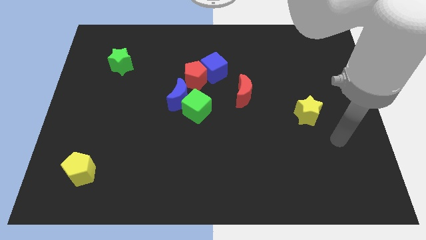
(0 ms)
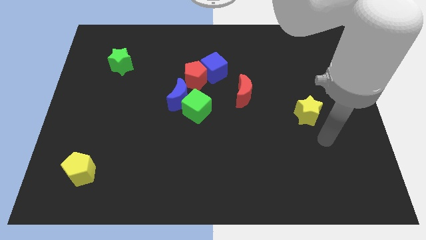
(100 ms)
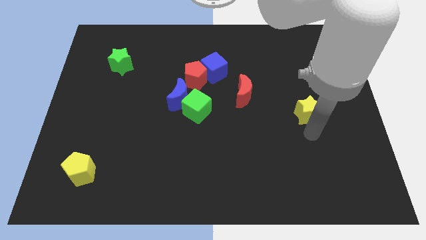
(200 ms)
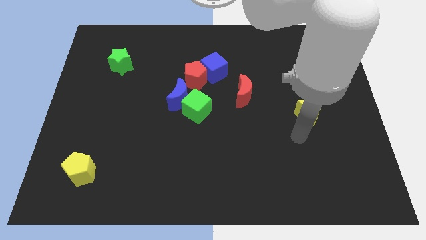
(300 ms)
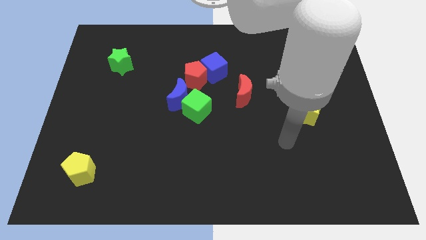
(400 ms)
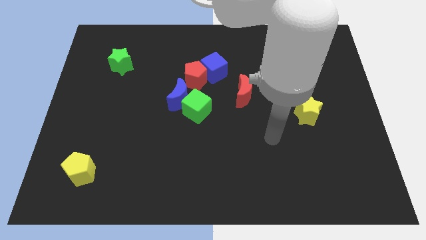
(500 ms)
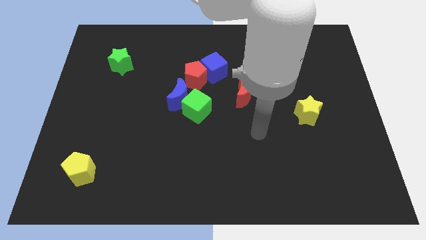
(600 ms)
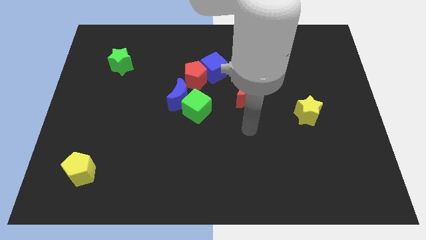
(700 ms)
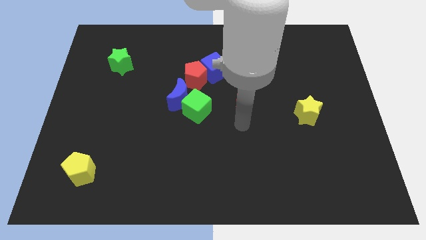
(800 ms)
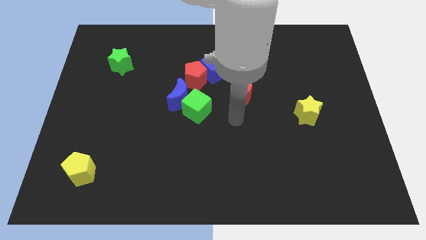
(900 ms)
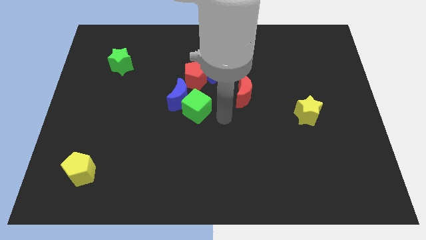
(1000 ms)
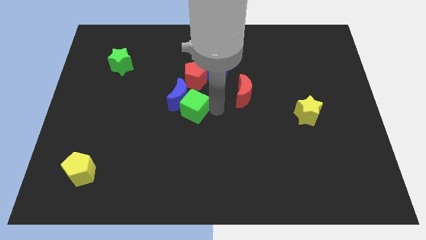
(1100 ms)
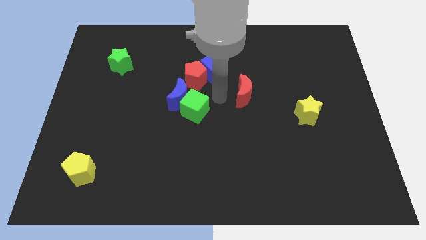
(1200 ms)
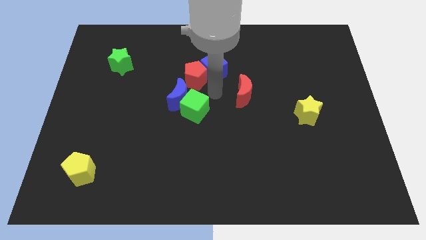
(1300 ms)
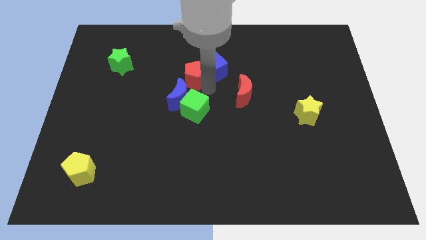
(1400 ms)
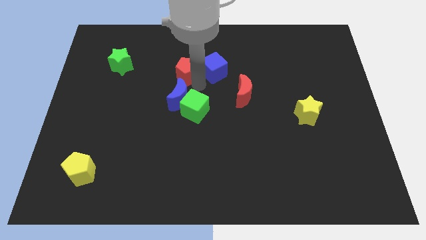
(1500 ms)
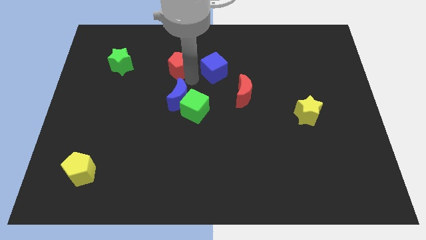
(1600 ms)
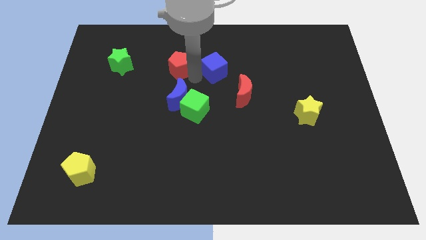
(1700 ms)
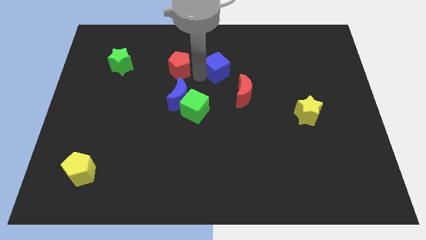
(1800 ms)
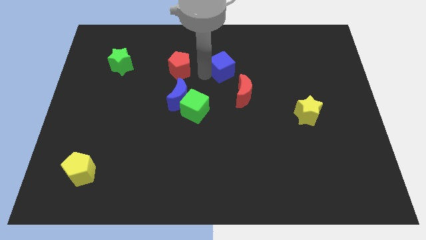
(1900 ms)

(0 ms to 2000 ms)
separate the blue cube from the red pentagon

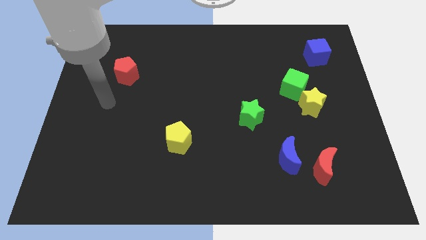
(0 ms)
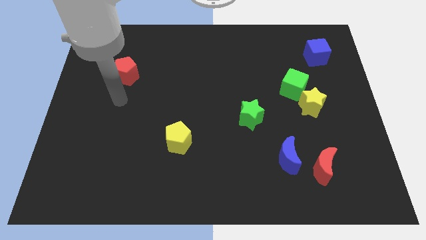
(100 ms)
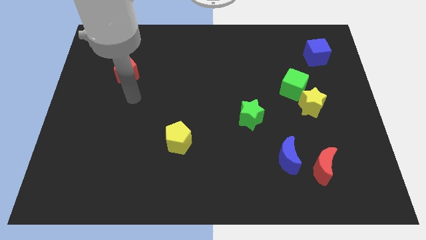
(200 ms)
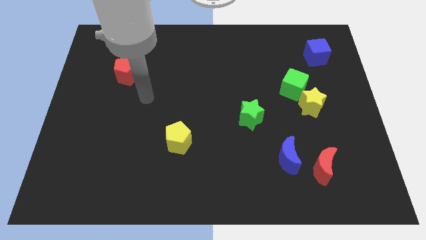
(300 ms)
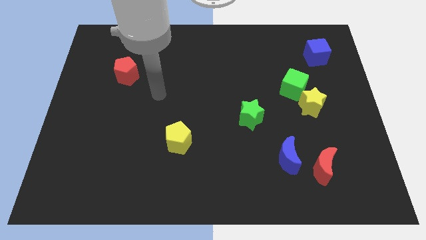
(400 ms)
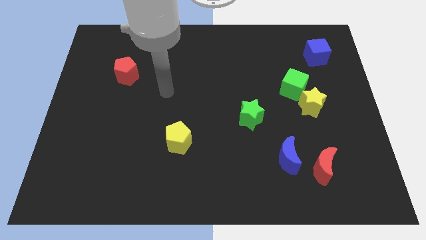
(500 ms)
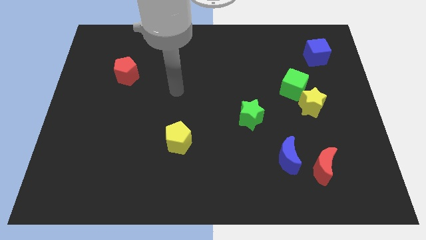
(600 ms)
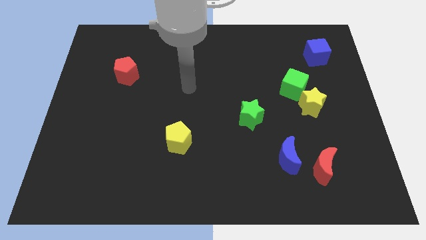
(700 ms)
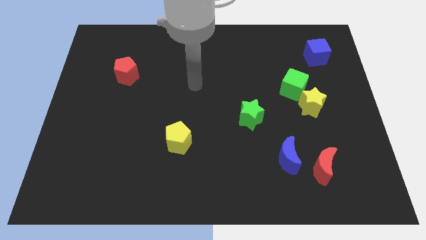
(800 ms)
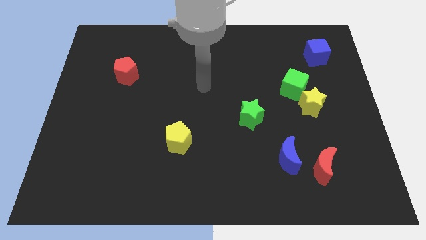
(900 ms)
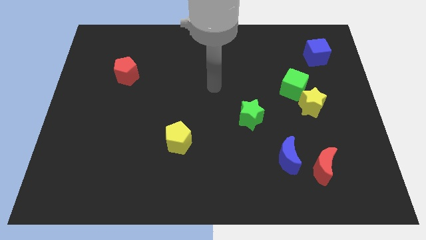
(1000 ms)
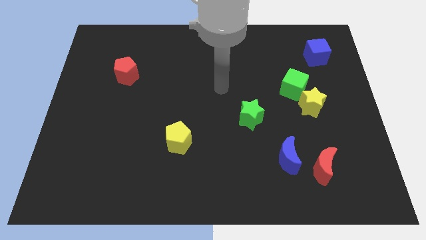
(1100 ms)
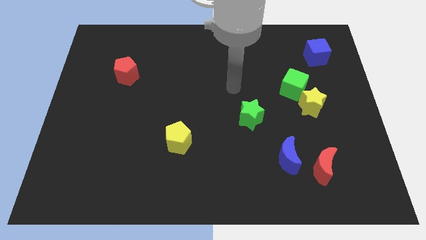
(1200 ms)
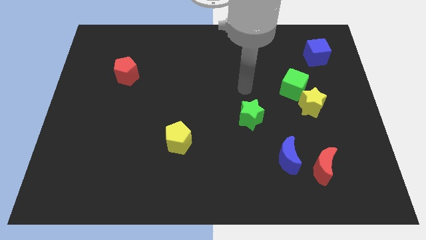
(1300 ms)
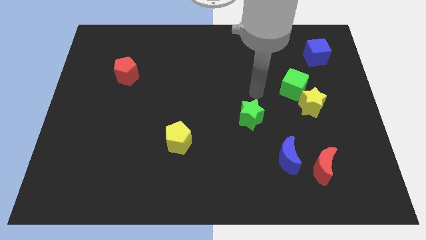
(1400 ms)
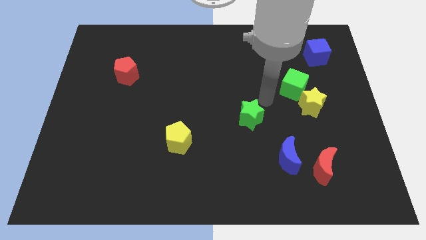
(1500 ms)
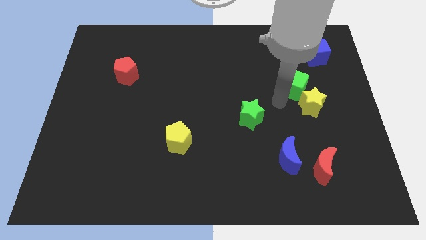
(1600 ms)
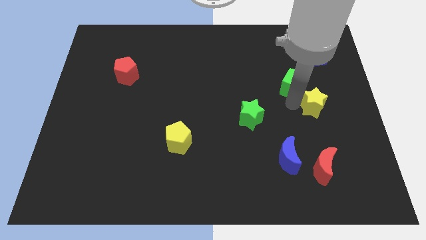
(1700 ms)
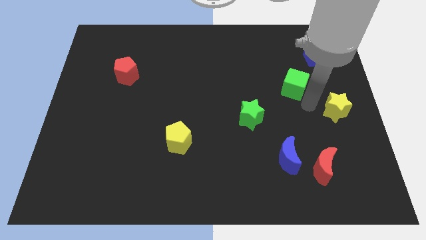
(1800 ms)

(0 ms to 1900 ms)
move the green cube away from the yellow star

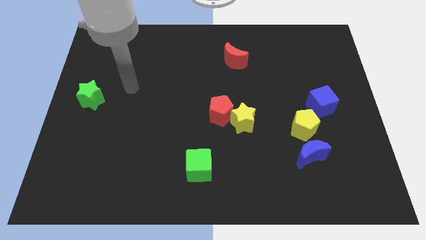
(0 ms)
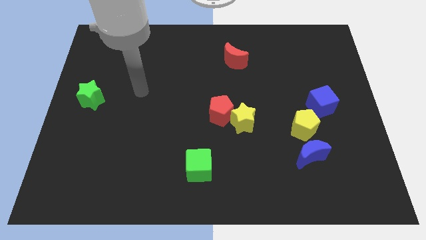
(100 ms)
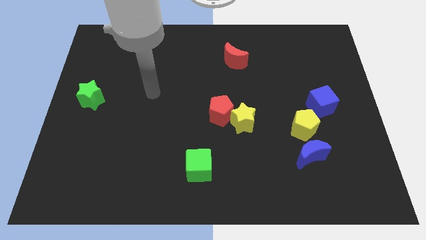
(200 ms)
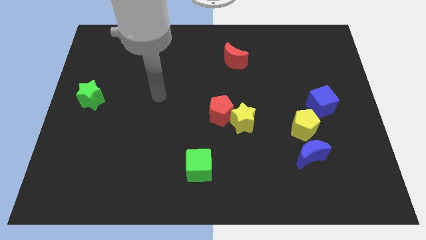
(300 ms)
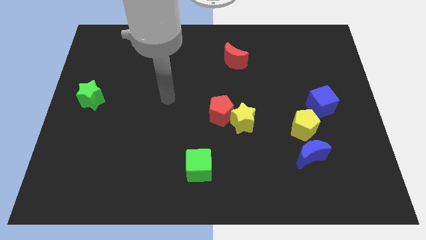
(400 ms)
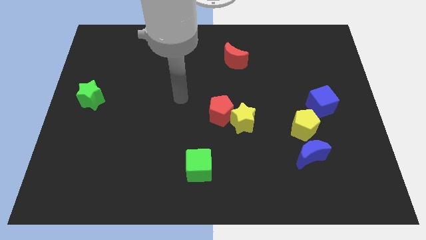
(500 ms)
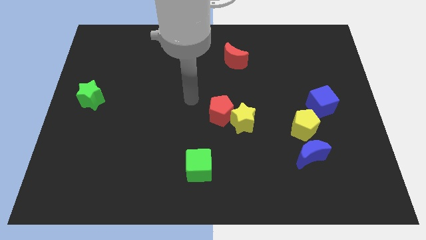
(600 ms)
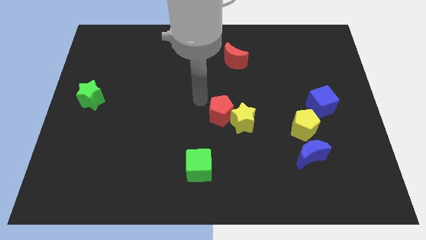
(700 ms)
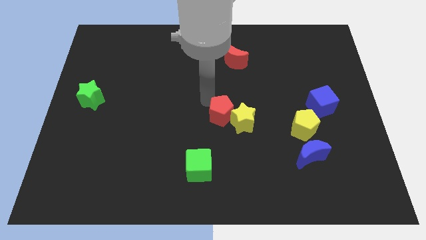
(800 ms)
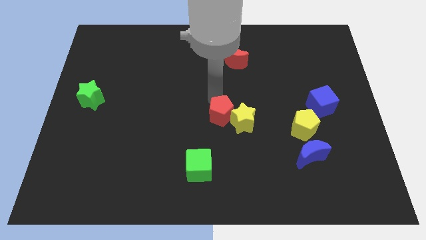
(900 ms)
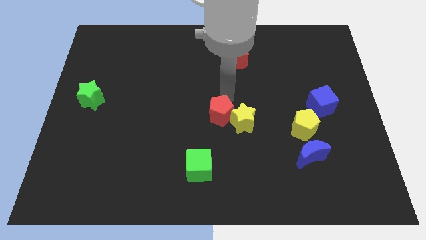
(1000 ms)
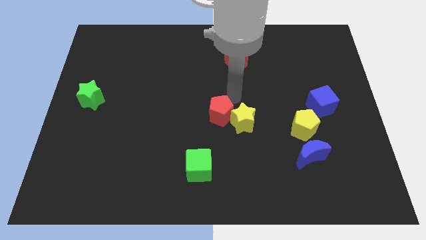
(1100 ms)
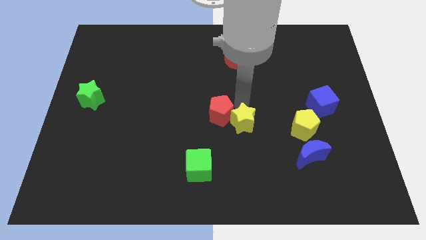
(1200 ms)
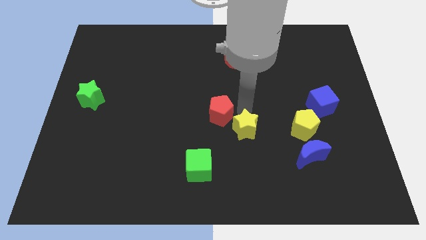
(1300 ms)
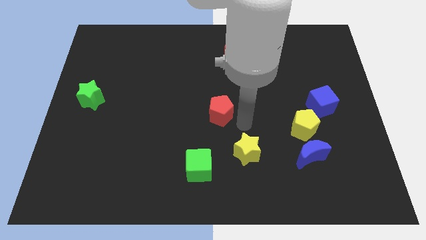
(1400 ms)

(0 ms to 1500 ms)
move the red pentagon away from the yellow star

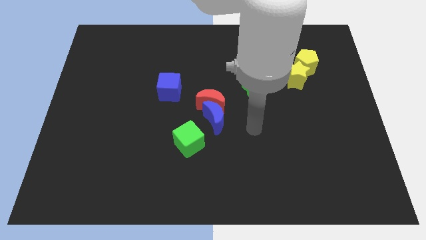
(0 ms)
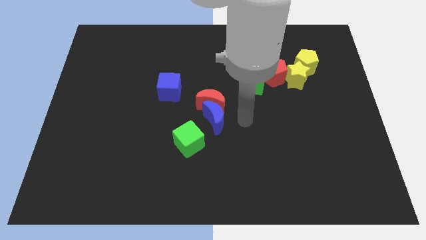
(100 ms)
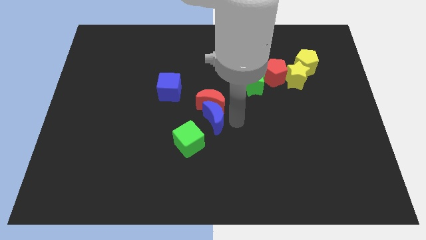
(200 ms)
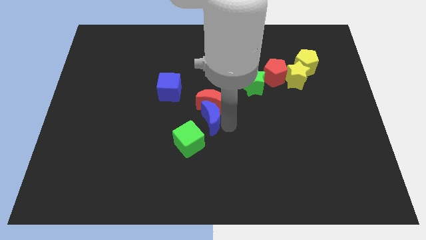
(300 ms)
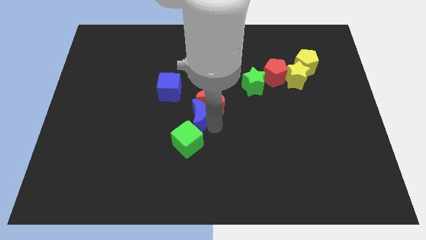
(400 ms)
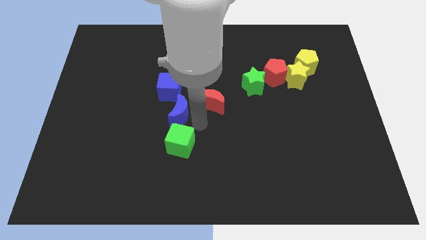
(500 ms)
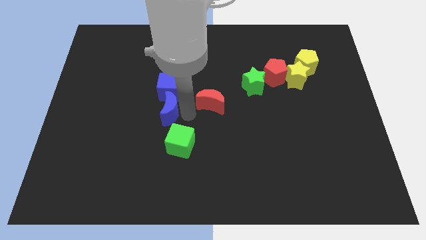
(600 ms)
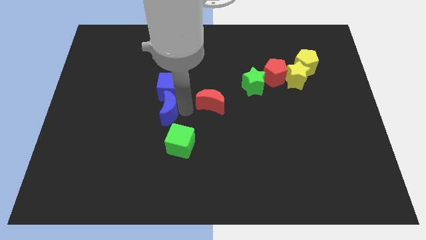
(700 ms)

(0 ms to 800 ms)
separate the red moon from the blue moon

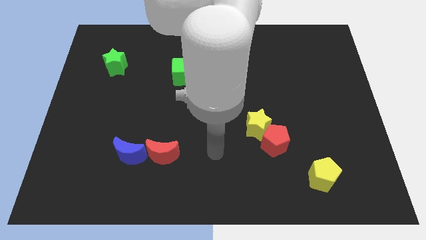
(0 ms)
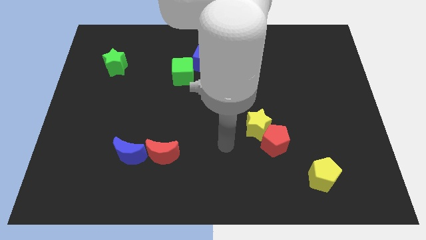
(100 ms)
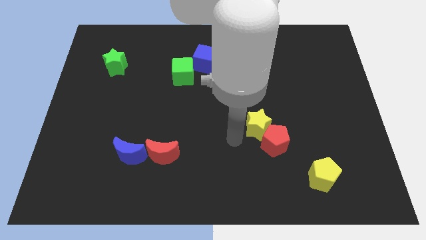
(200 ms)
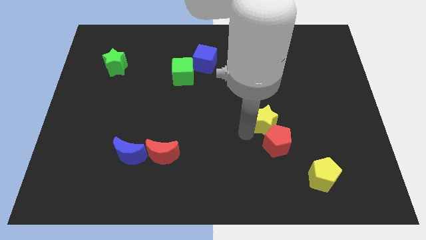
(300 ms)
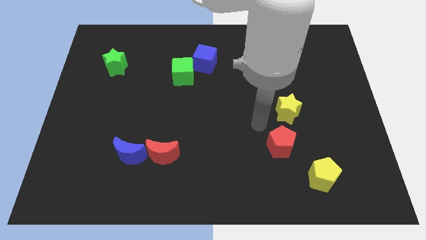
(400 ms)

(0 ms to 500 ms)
separate the red pentagon from the yellow star

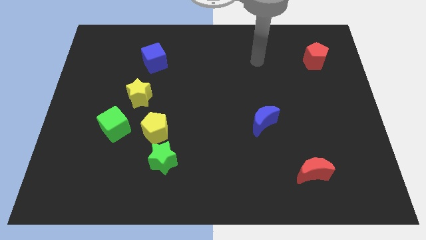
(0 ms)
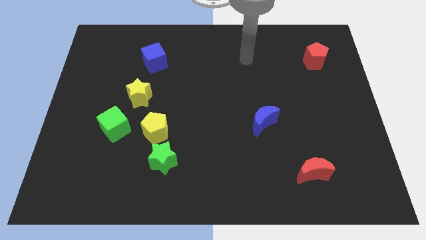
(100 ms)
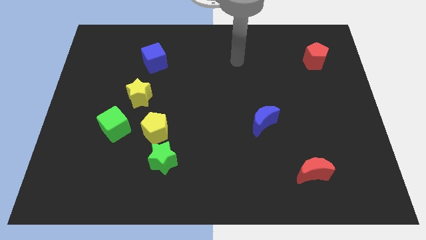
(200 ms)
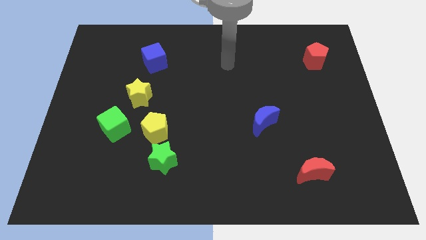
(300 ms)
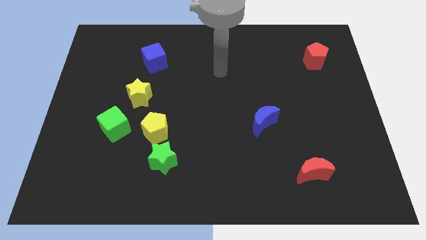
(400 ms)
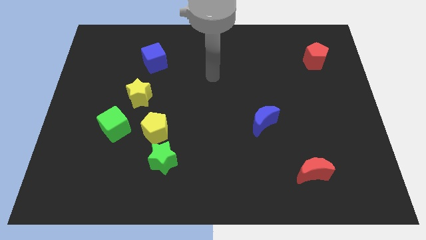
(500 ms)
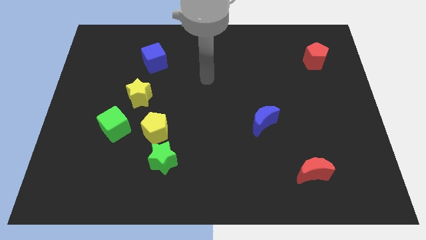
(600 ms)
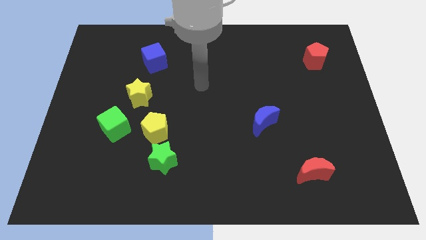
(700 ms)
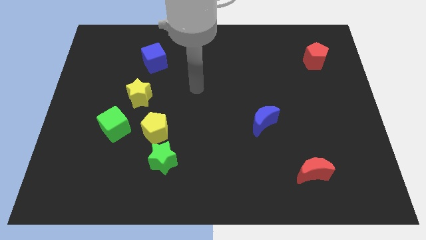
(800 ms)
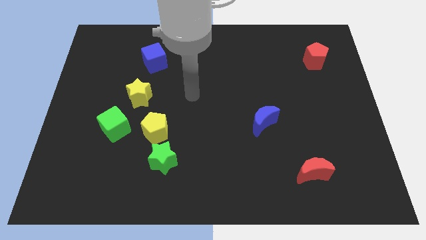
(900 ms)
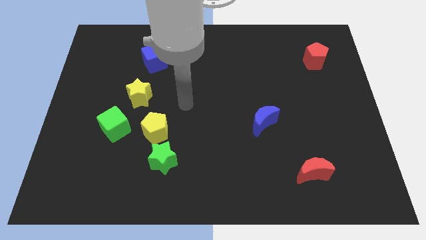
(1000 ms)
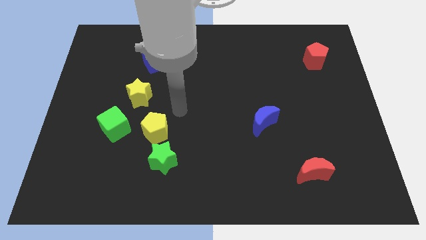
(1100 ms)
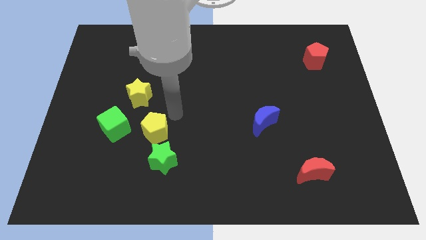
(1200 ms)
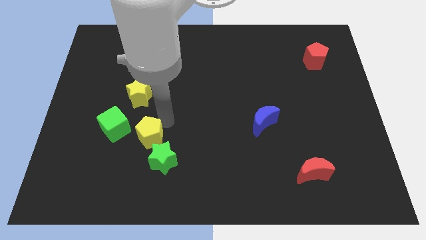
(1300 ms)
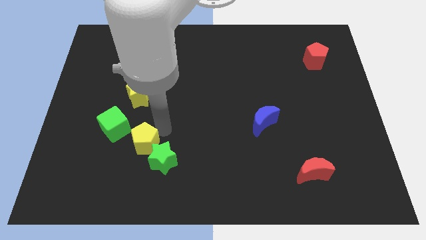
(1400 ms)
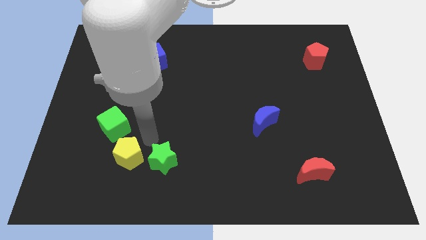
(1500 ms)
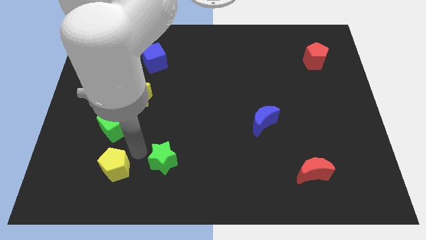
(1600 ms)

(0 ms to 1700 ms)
move the green star away from the yellow pentagon

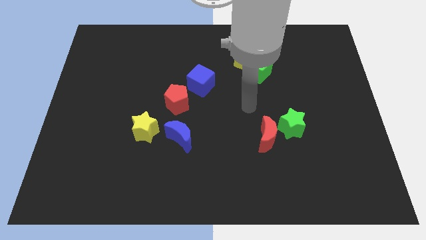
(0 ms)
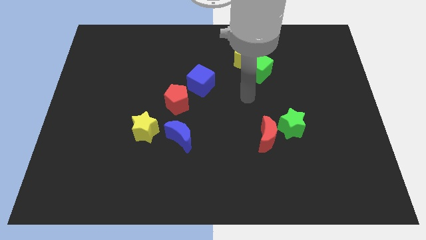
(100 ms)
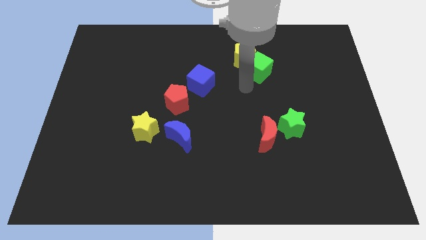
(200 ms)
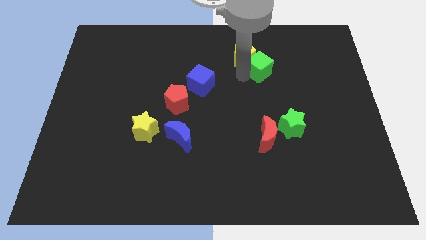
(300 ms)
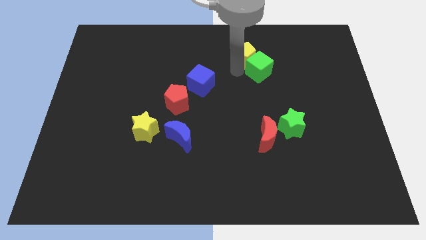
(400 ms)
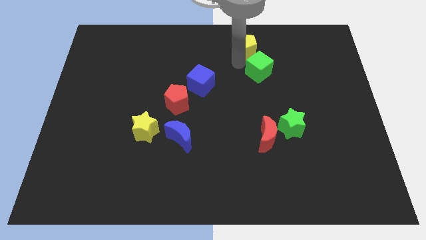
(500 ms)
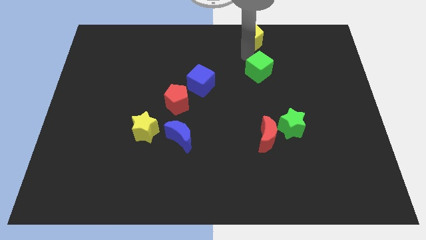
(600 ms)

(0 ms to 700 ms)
move the green cube away from the yellow pentagon

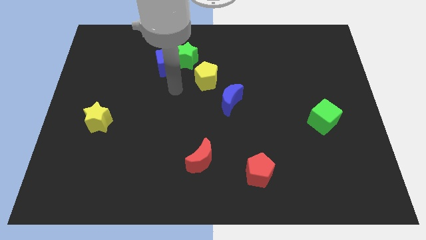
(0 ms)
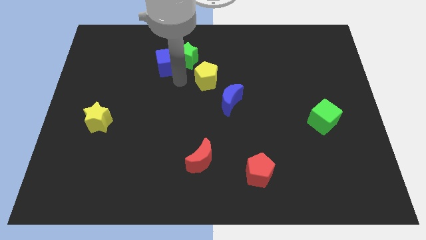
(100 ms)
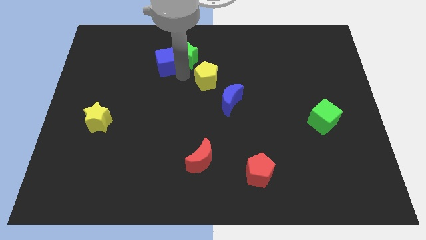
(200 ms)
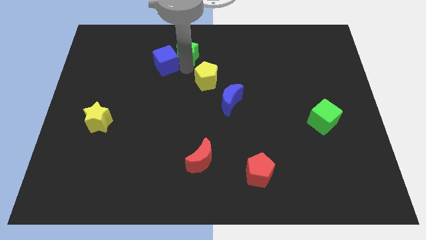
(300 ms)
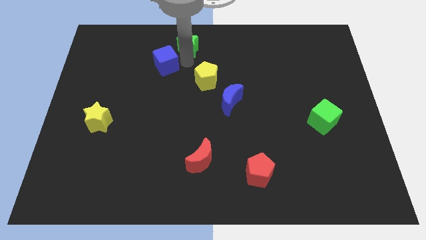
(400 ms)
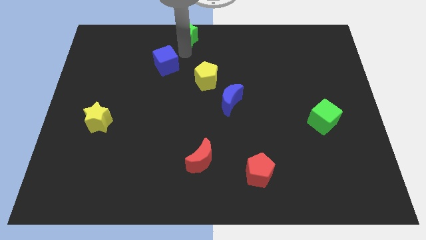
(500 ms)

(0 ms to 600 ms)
separate the blue cube from the green star
